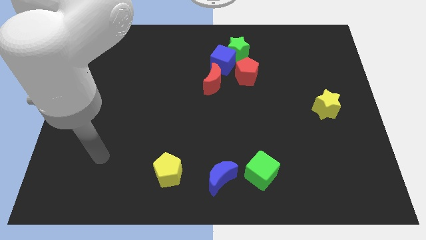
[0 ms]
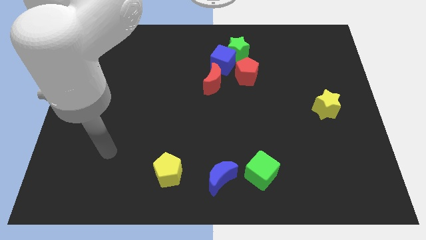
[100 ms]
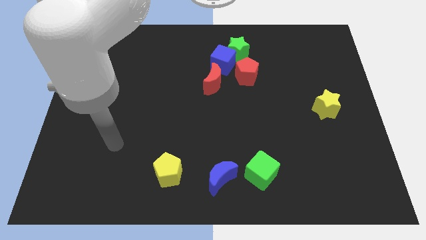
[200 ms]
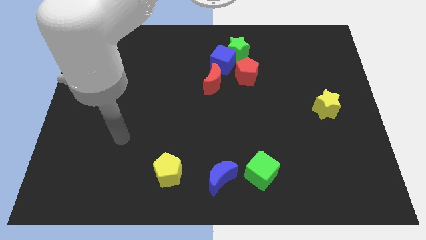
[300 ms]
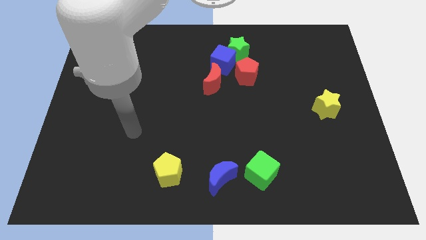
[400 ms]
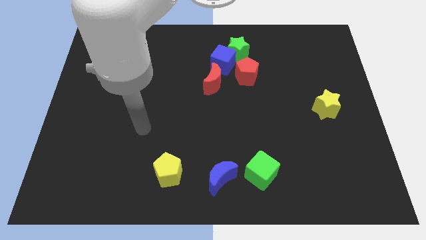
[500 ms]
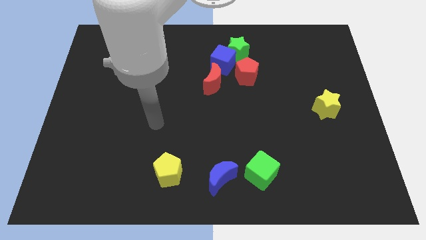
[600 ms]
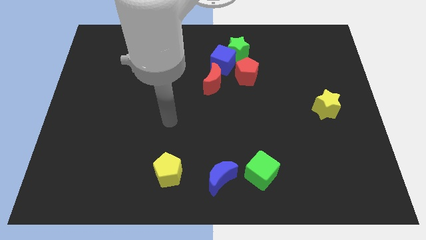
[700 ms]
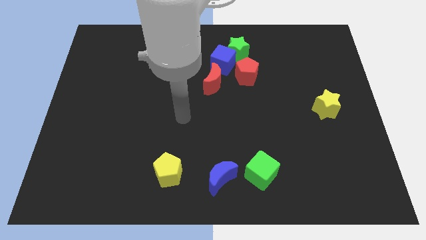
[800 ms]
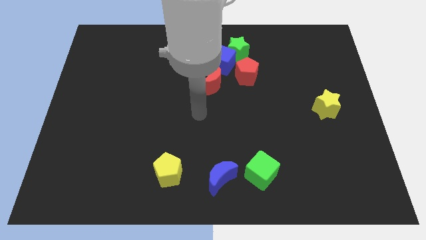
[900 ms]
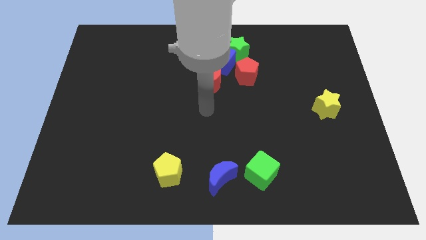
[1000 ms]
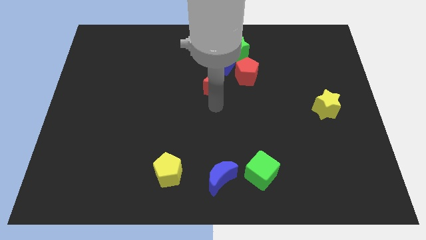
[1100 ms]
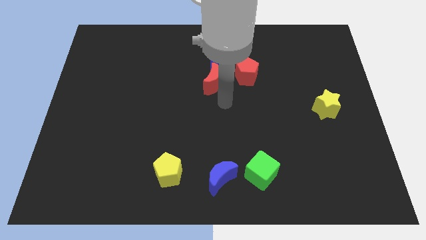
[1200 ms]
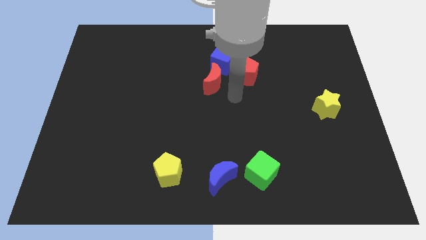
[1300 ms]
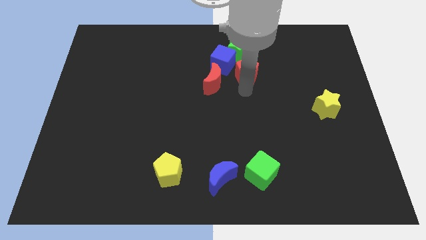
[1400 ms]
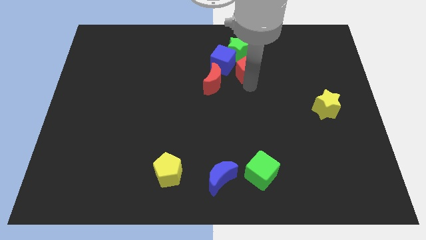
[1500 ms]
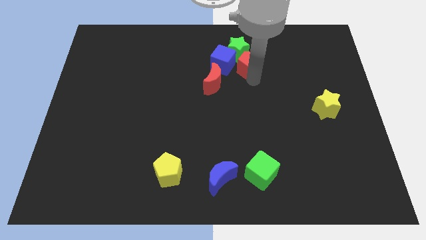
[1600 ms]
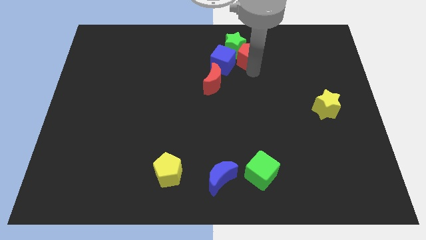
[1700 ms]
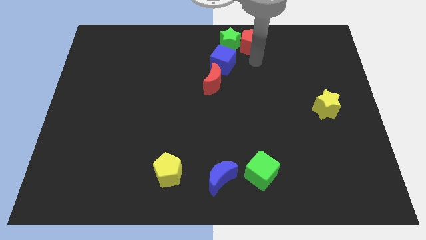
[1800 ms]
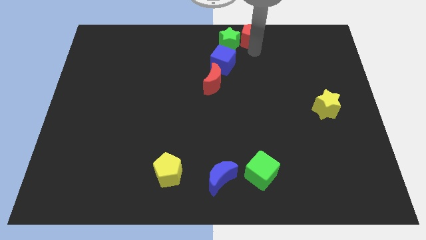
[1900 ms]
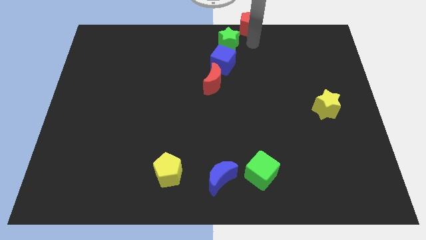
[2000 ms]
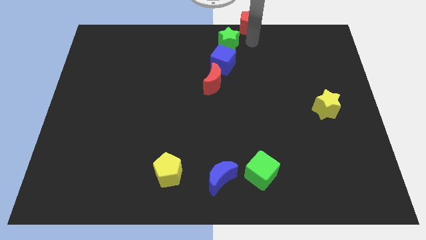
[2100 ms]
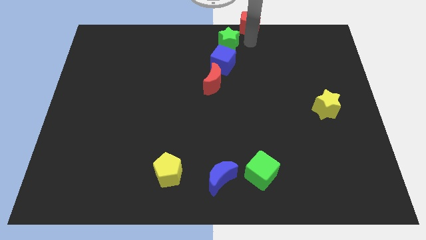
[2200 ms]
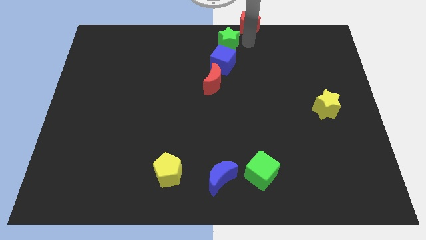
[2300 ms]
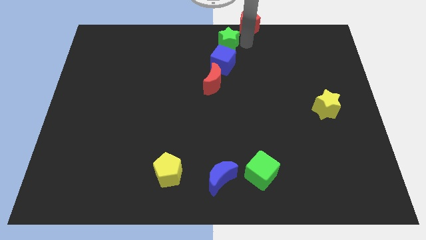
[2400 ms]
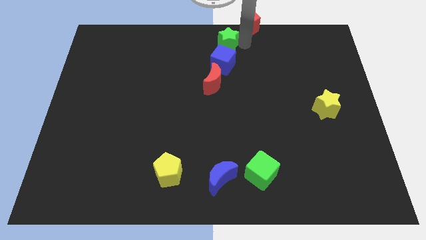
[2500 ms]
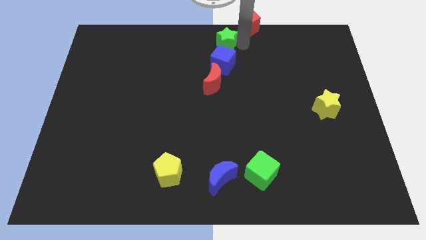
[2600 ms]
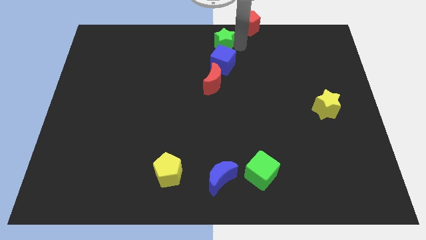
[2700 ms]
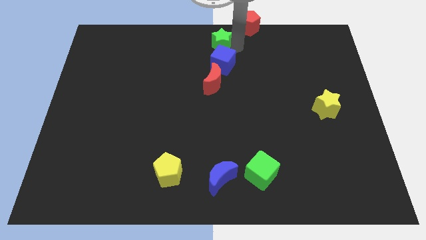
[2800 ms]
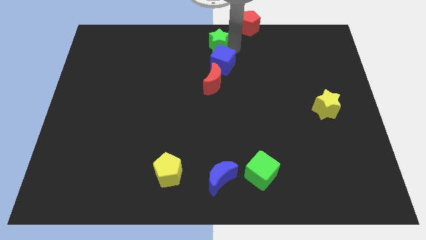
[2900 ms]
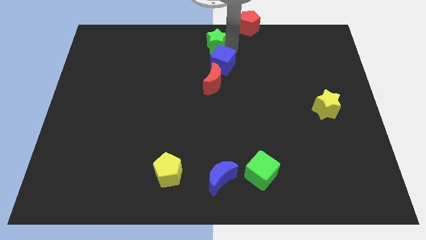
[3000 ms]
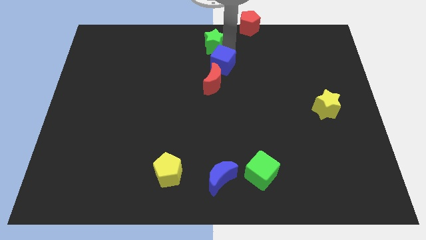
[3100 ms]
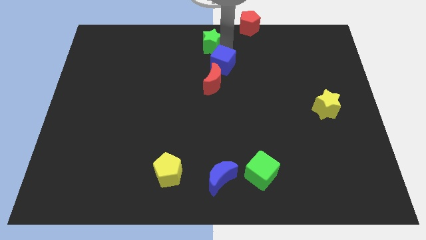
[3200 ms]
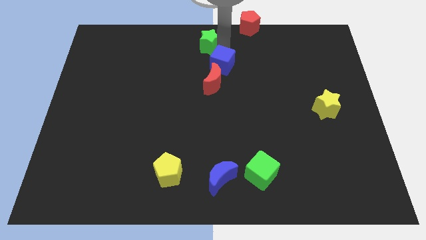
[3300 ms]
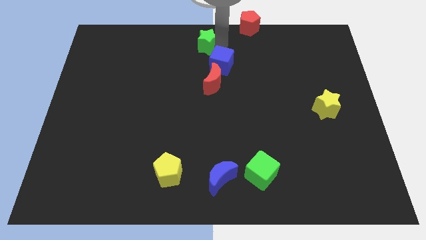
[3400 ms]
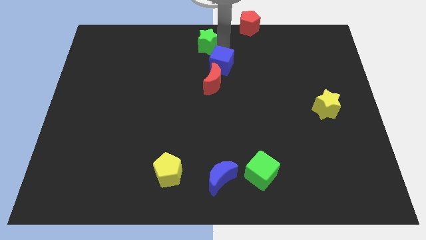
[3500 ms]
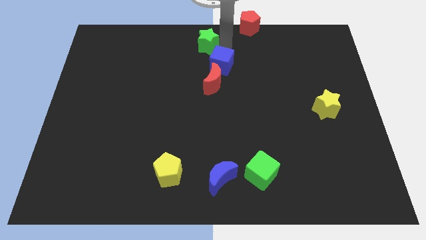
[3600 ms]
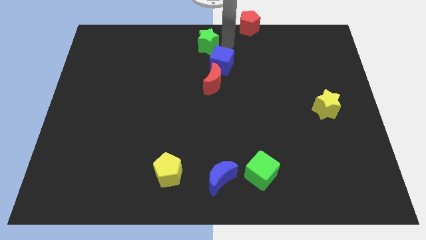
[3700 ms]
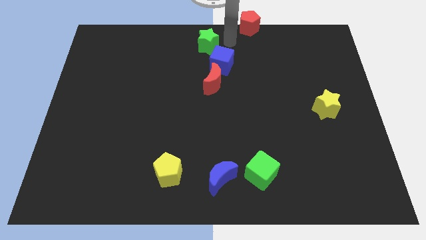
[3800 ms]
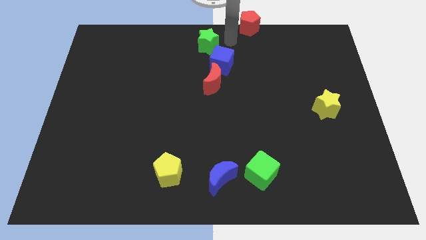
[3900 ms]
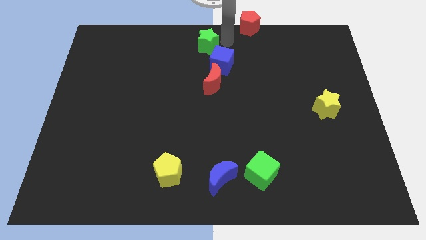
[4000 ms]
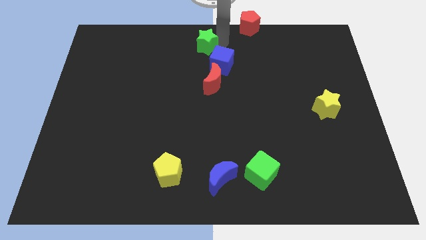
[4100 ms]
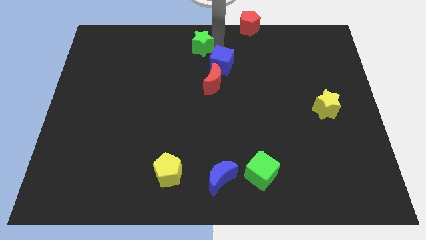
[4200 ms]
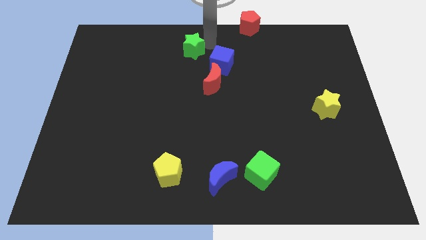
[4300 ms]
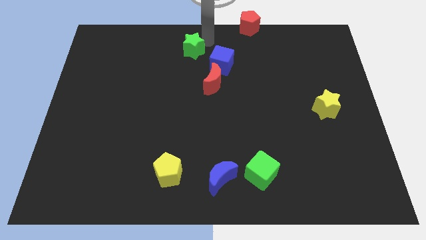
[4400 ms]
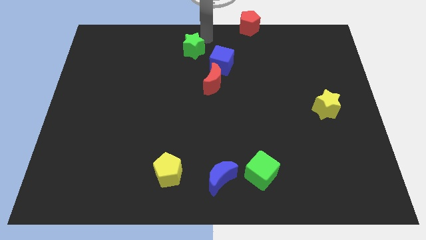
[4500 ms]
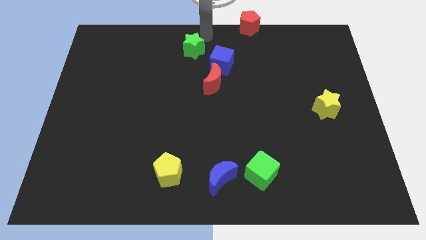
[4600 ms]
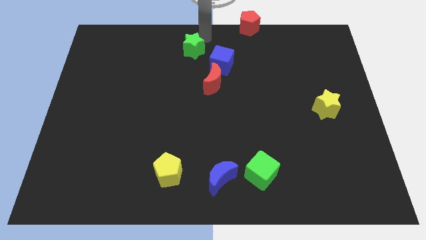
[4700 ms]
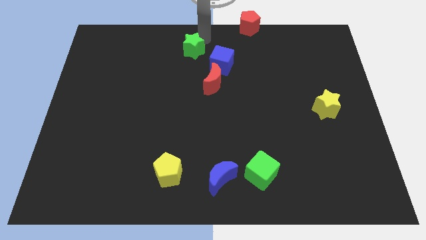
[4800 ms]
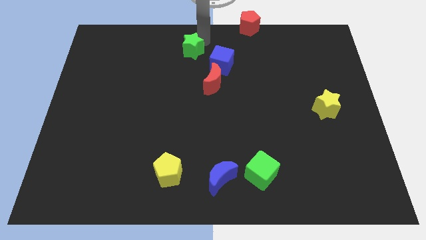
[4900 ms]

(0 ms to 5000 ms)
slide the green star just left of the blue cube

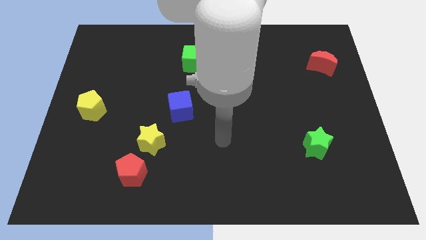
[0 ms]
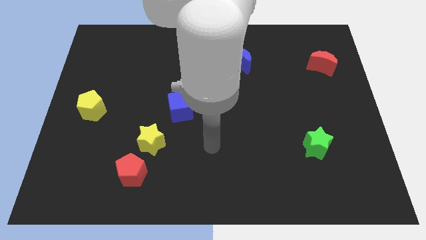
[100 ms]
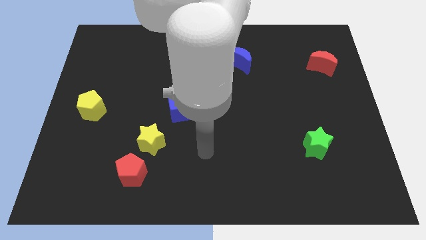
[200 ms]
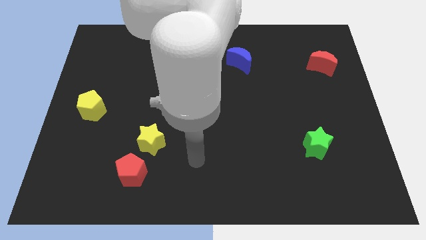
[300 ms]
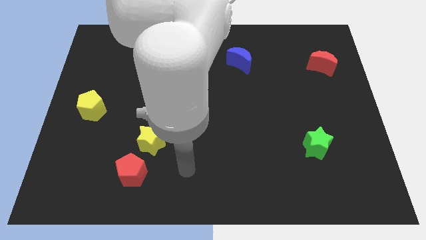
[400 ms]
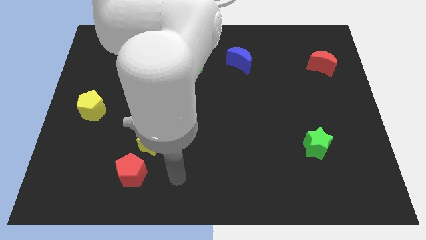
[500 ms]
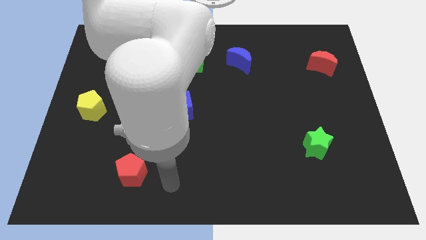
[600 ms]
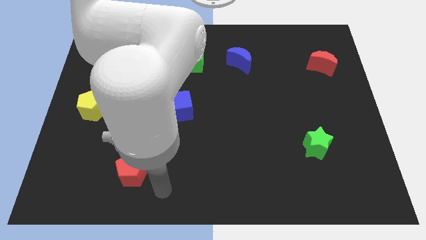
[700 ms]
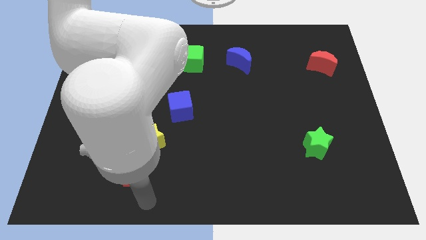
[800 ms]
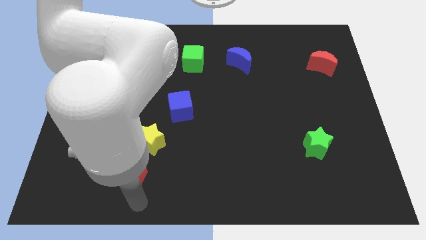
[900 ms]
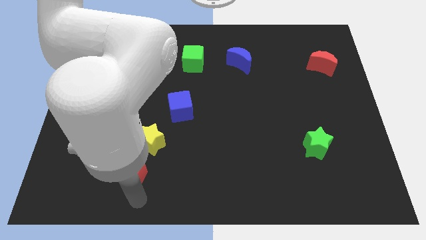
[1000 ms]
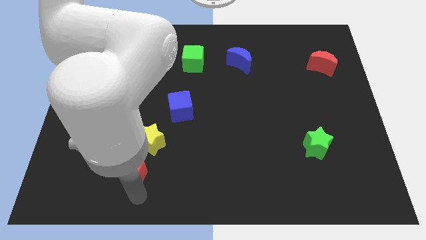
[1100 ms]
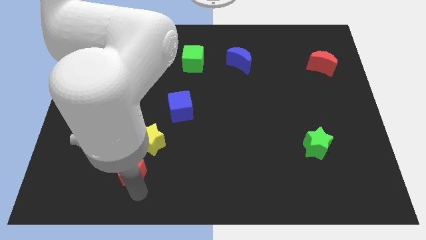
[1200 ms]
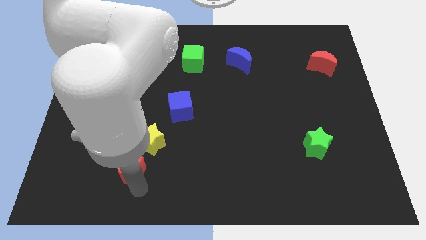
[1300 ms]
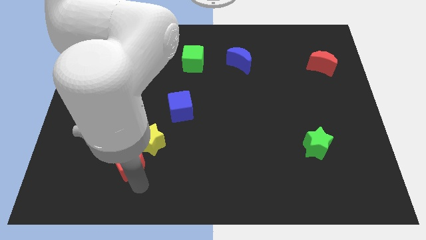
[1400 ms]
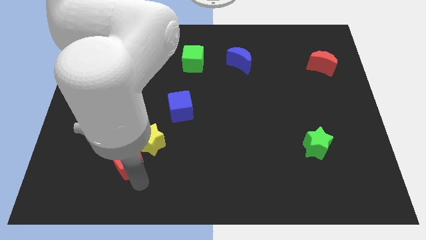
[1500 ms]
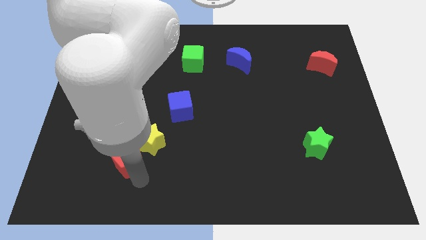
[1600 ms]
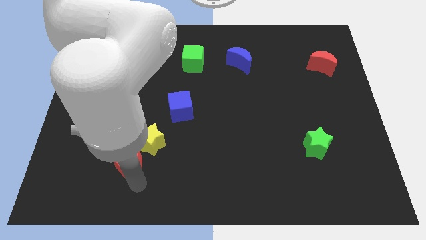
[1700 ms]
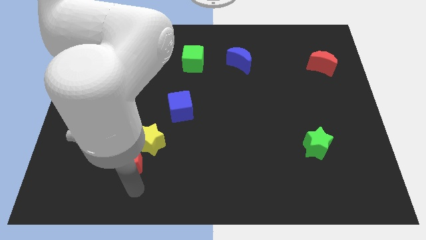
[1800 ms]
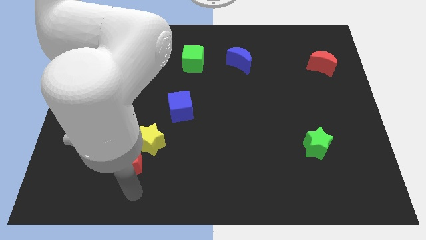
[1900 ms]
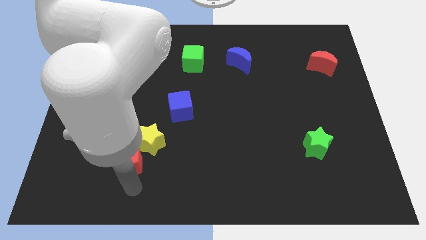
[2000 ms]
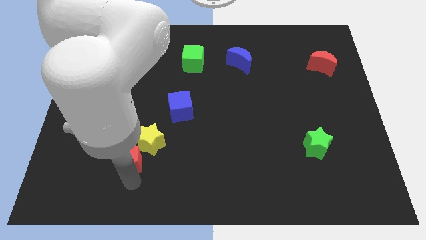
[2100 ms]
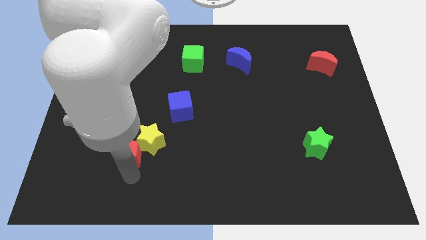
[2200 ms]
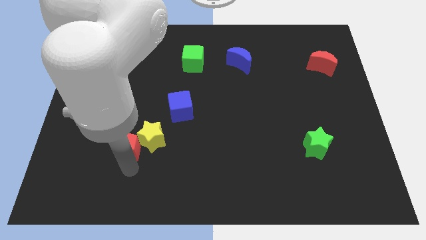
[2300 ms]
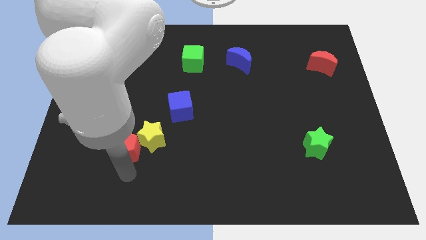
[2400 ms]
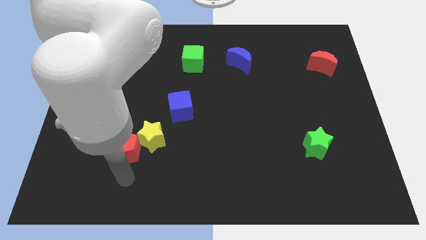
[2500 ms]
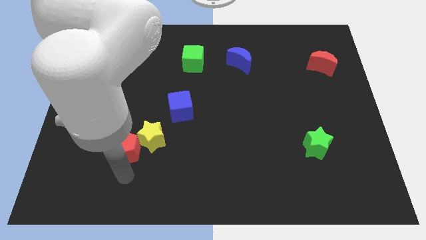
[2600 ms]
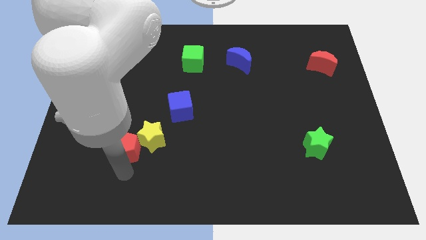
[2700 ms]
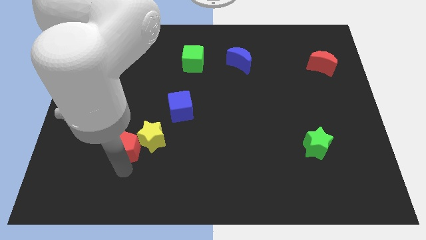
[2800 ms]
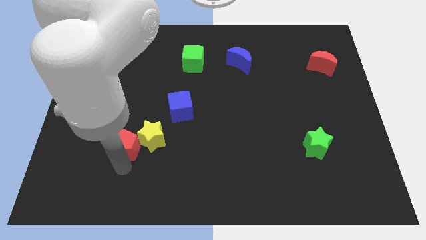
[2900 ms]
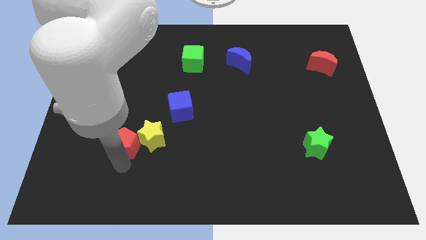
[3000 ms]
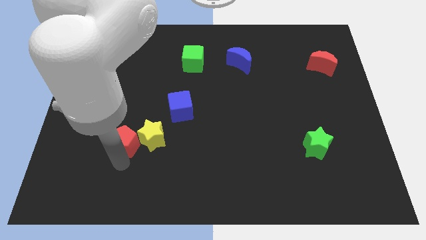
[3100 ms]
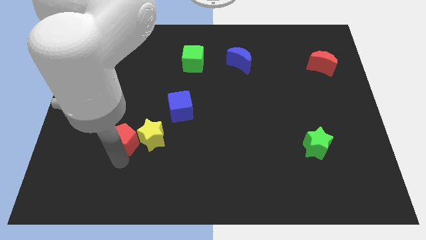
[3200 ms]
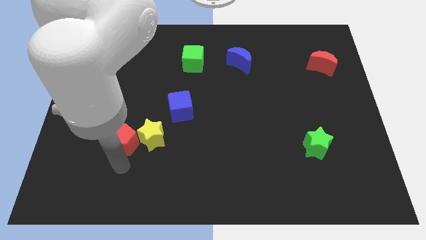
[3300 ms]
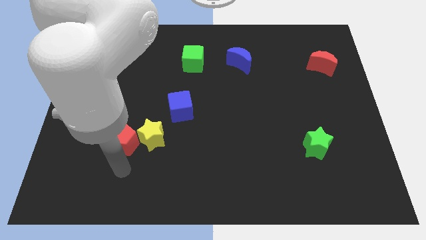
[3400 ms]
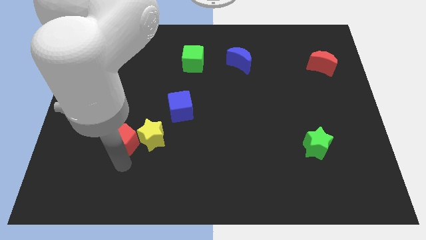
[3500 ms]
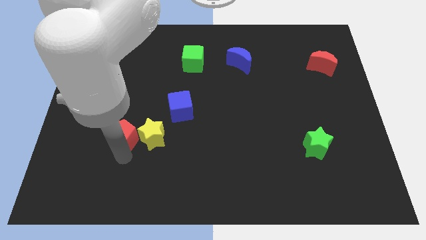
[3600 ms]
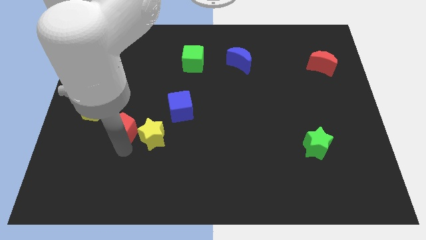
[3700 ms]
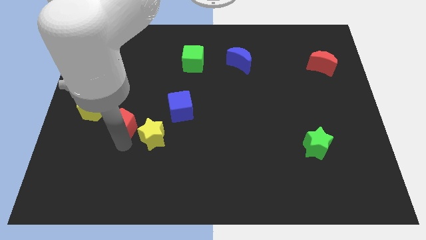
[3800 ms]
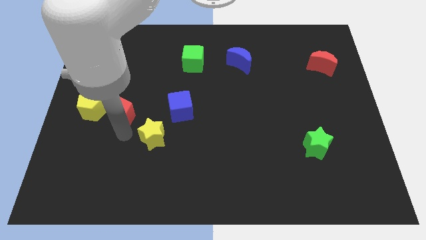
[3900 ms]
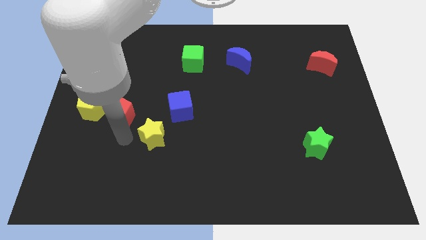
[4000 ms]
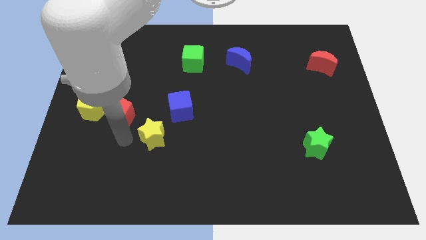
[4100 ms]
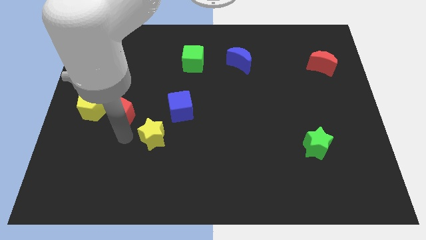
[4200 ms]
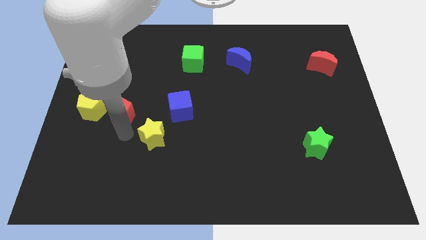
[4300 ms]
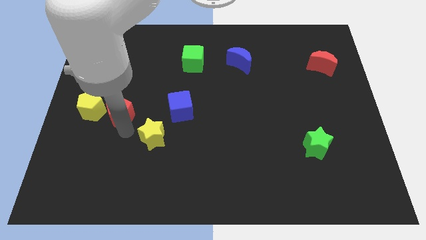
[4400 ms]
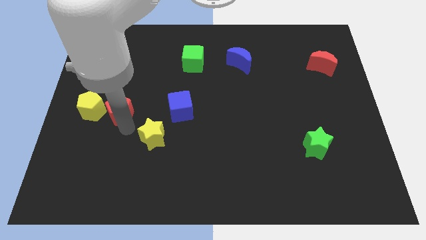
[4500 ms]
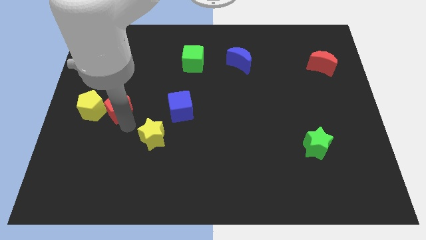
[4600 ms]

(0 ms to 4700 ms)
put the red pentagon diagonally up and to the right of the yellow pentagon
